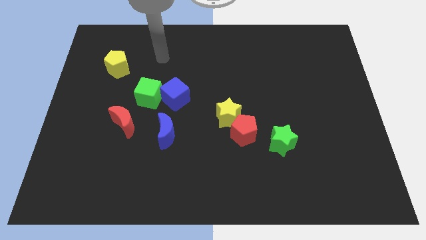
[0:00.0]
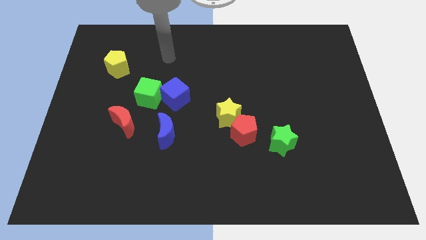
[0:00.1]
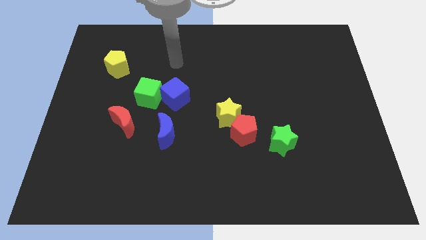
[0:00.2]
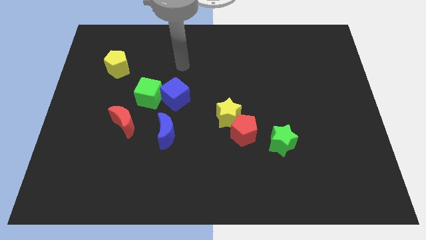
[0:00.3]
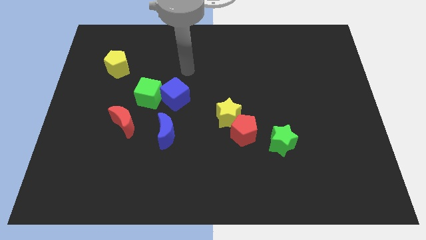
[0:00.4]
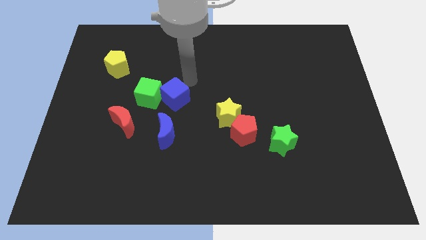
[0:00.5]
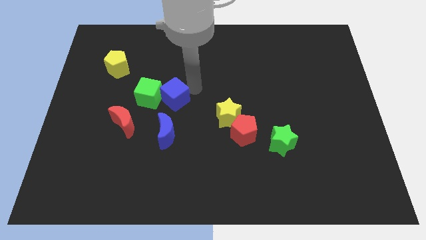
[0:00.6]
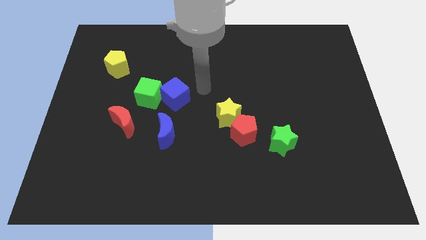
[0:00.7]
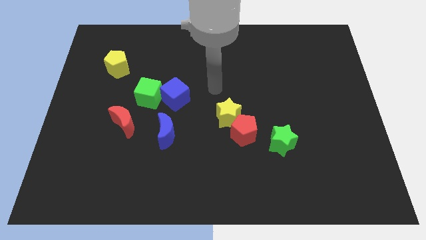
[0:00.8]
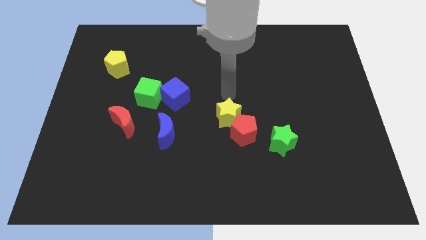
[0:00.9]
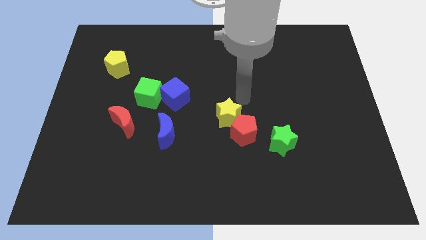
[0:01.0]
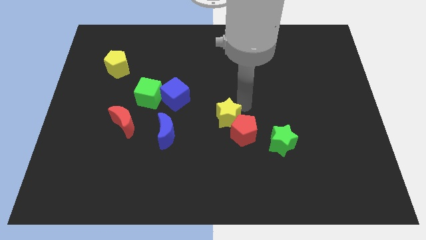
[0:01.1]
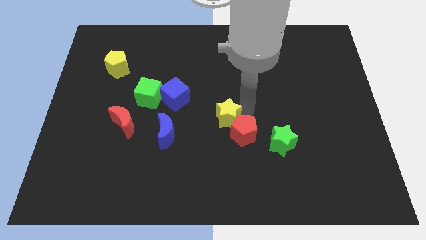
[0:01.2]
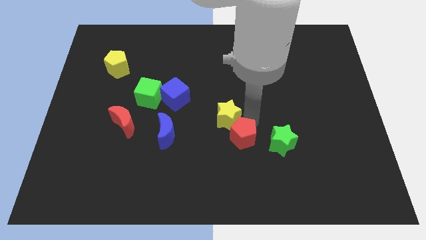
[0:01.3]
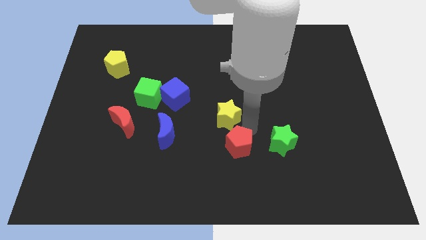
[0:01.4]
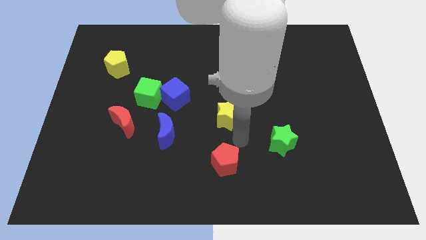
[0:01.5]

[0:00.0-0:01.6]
separate the yellow star from the red pentagon

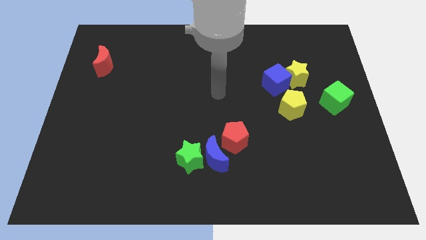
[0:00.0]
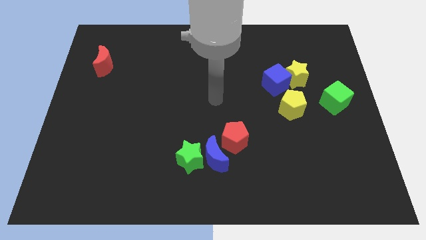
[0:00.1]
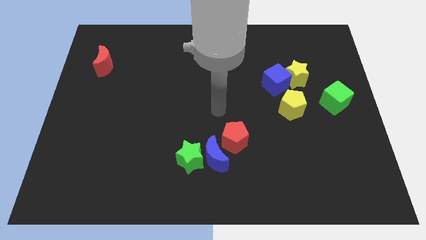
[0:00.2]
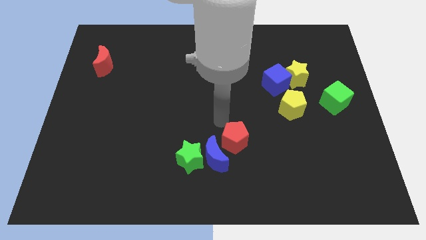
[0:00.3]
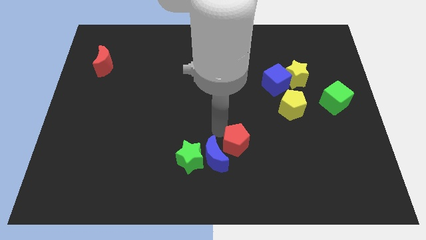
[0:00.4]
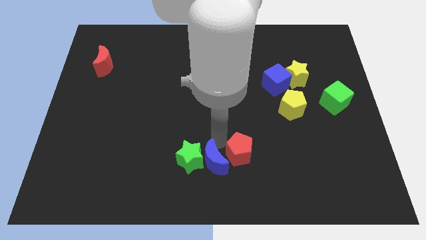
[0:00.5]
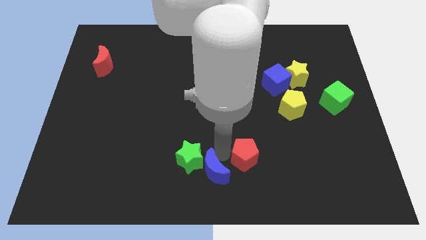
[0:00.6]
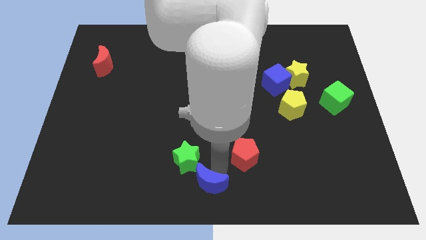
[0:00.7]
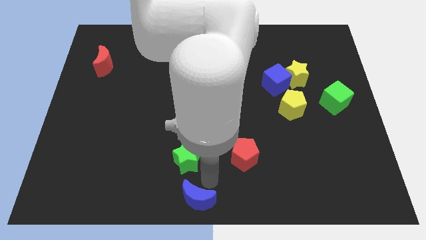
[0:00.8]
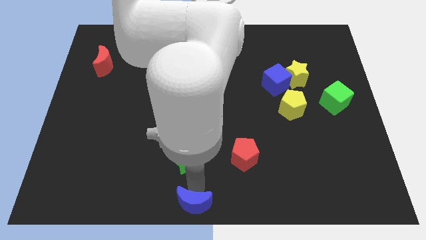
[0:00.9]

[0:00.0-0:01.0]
pull the green star apart from the blue moon

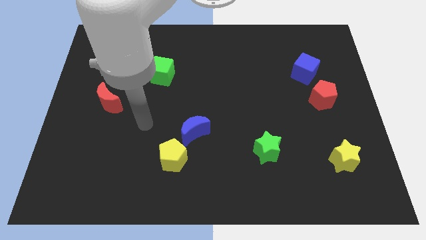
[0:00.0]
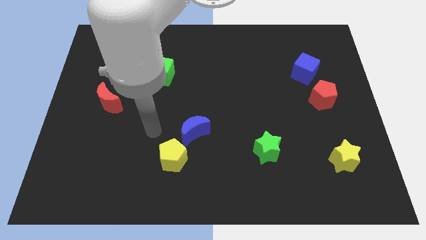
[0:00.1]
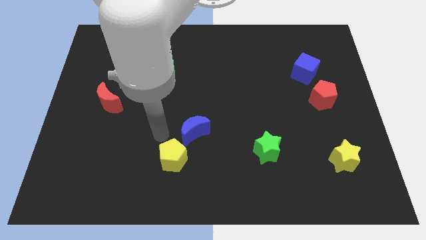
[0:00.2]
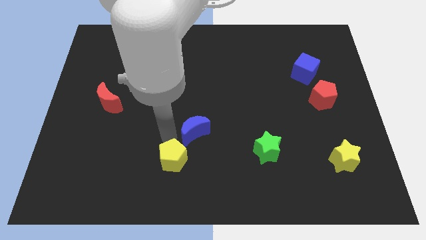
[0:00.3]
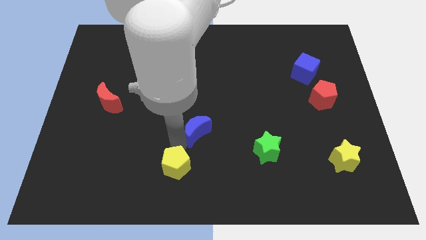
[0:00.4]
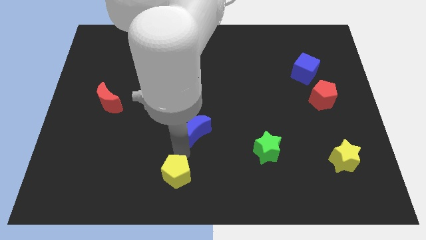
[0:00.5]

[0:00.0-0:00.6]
pull the blue moon apart from the yellow pentagon

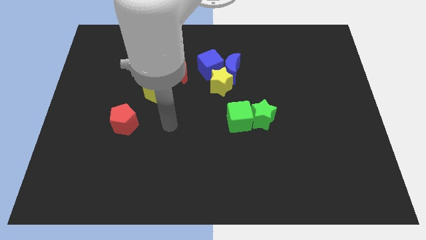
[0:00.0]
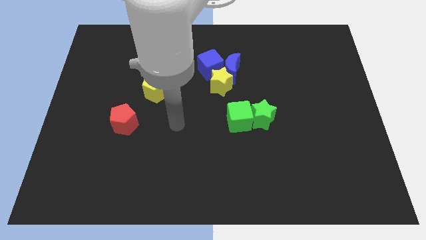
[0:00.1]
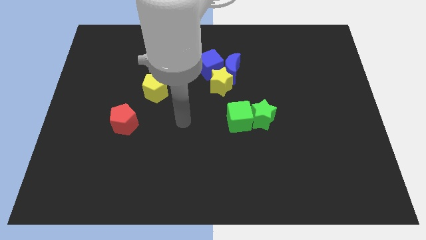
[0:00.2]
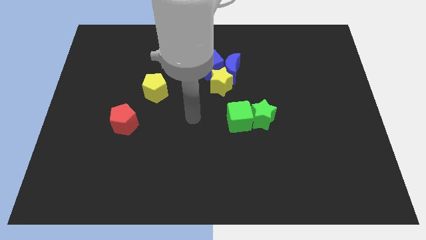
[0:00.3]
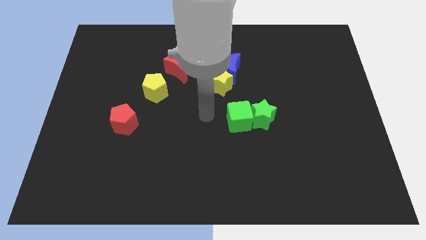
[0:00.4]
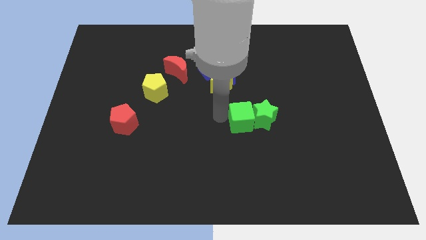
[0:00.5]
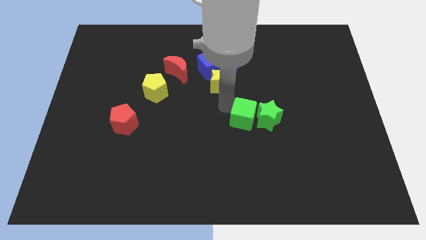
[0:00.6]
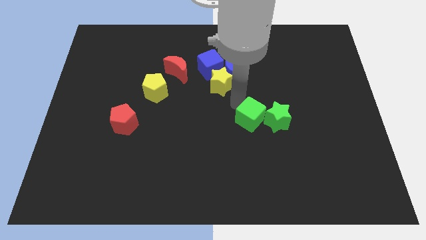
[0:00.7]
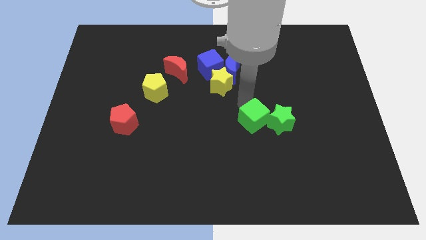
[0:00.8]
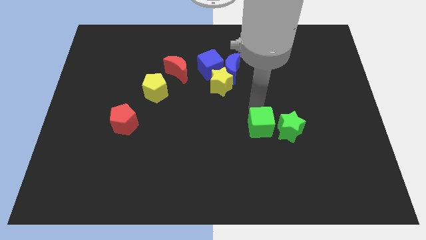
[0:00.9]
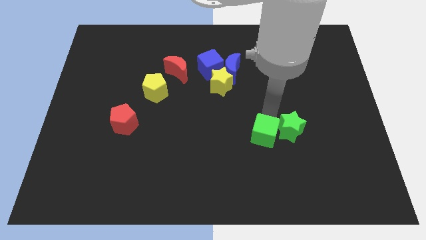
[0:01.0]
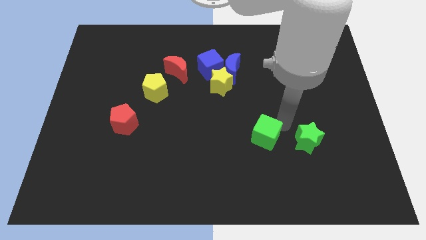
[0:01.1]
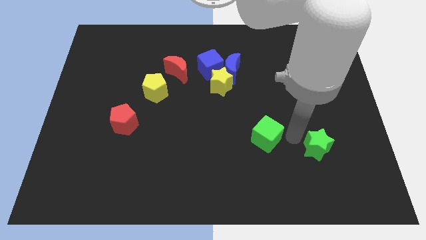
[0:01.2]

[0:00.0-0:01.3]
move the green cube away from the green star

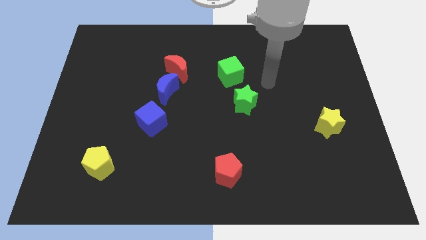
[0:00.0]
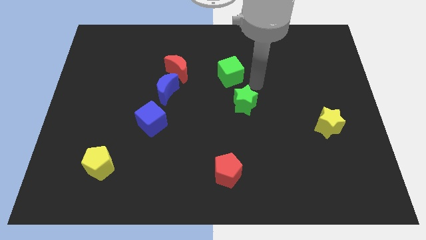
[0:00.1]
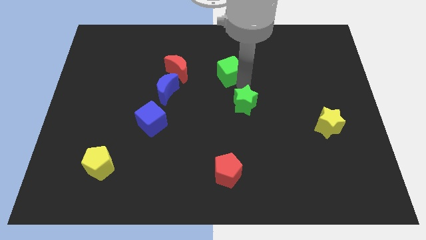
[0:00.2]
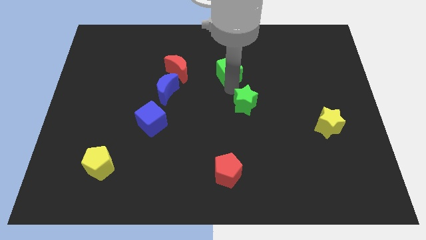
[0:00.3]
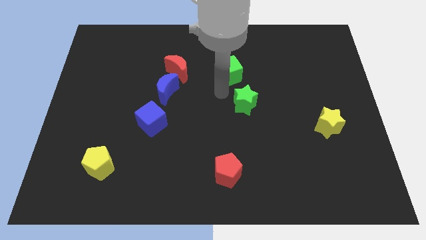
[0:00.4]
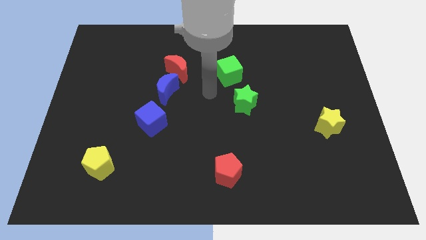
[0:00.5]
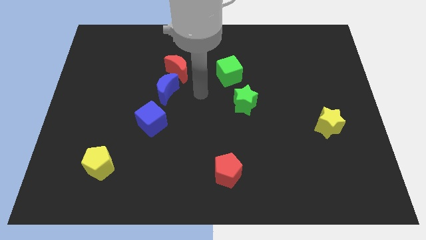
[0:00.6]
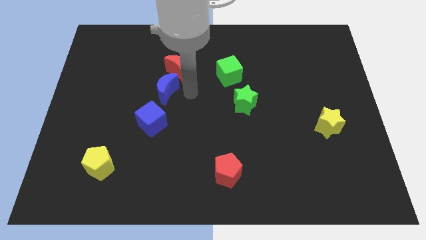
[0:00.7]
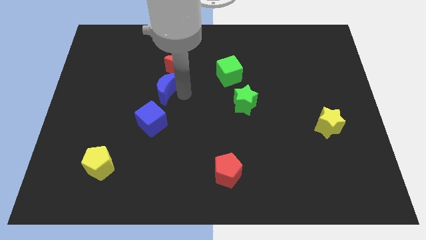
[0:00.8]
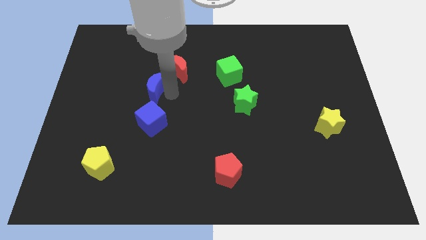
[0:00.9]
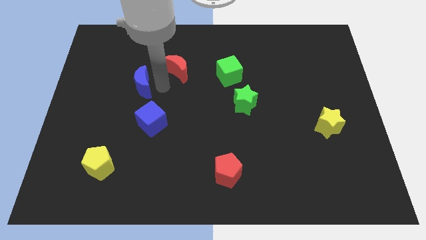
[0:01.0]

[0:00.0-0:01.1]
move the red moon away from the blue moon

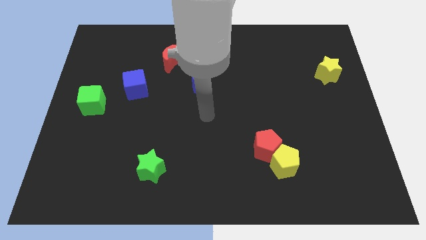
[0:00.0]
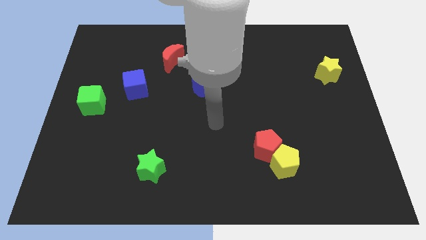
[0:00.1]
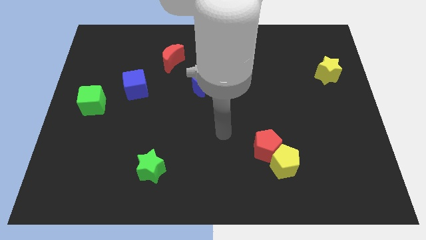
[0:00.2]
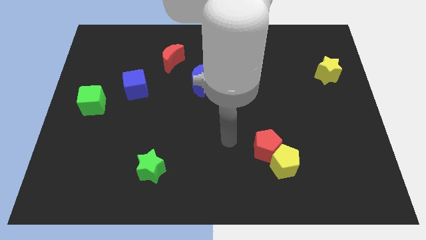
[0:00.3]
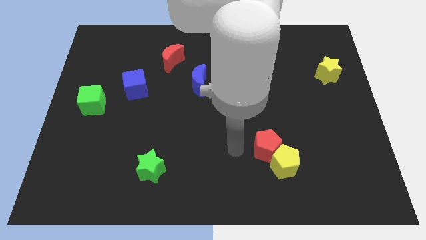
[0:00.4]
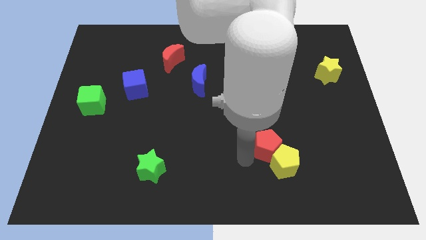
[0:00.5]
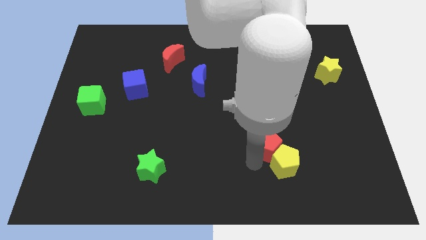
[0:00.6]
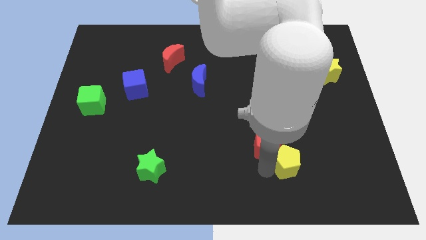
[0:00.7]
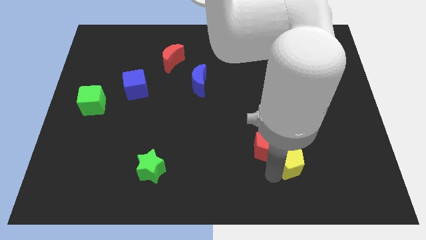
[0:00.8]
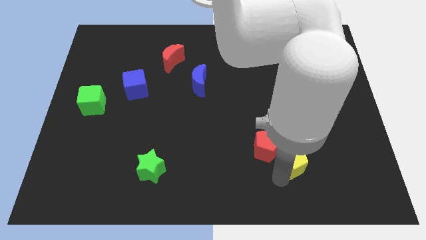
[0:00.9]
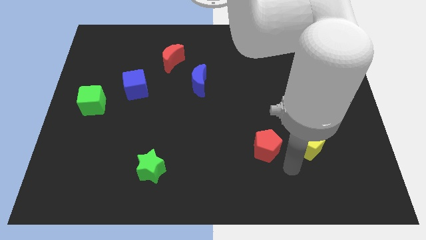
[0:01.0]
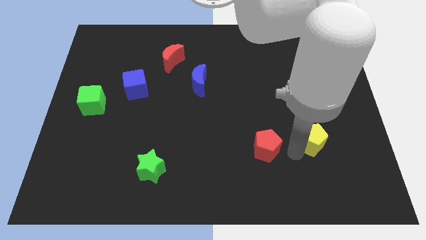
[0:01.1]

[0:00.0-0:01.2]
separate the red pentagon from the yellow pentagon

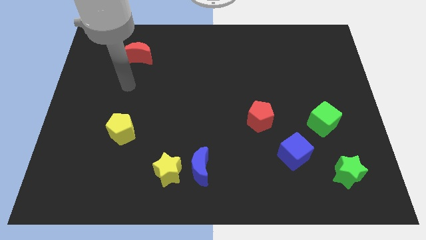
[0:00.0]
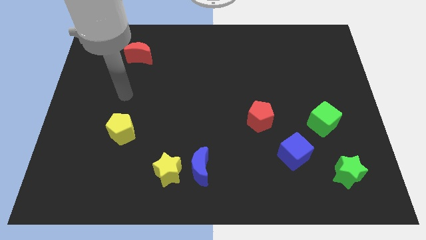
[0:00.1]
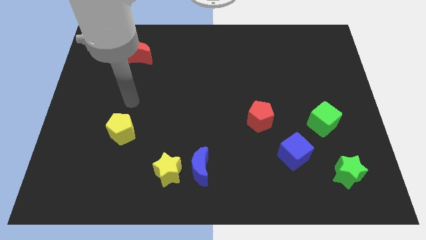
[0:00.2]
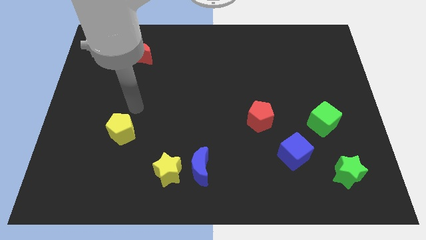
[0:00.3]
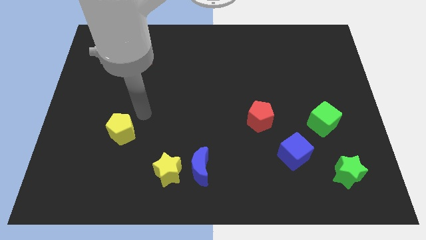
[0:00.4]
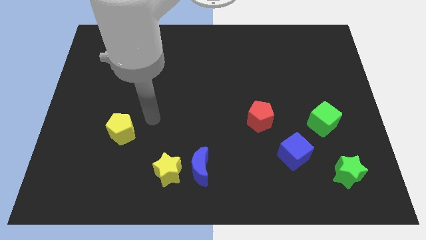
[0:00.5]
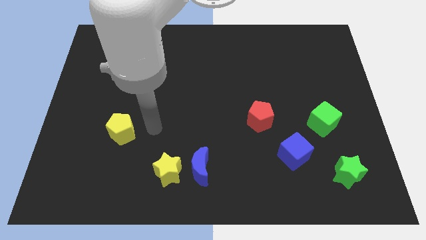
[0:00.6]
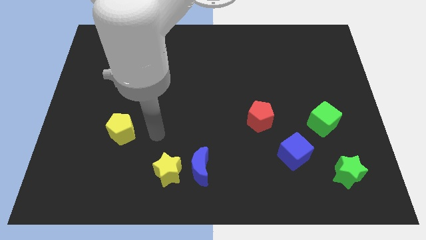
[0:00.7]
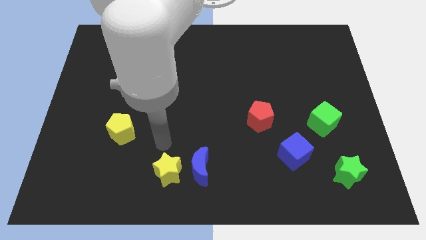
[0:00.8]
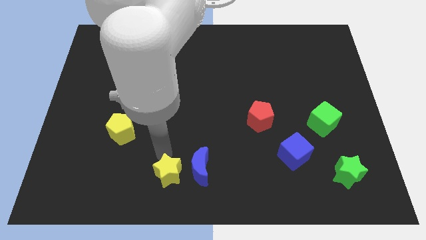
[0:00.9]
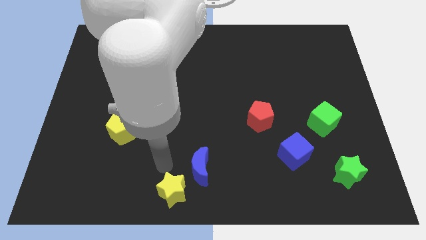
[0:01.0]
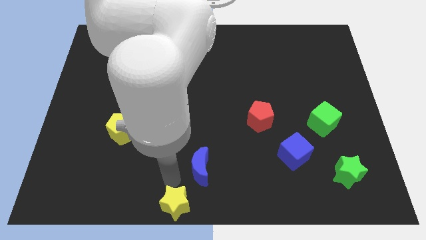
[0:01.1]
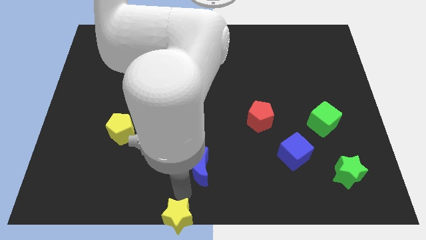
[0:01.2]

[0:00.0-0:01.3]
pull the blue moon apart from the yellow star

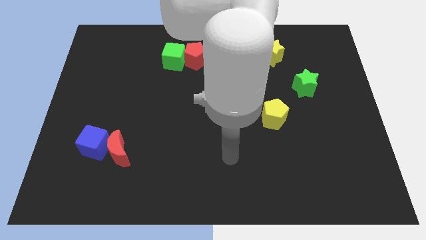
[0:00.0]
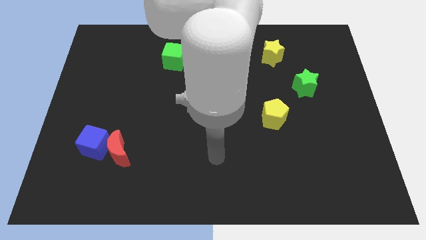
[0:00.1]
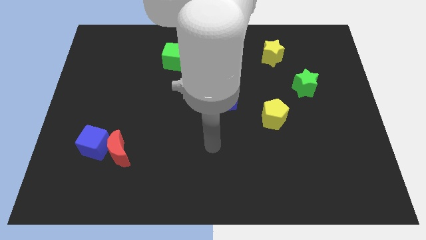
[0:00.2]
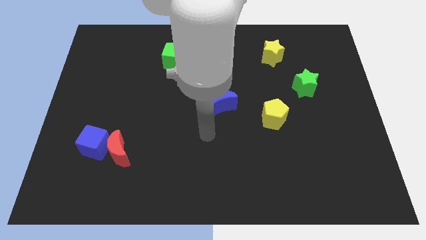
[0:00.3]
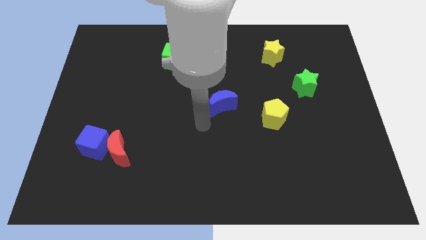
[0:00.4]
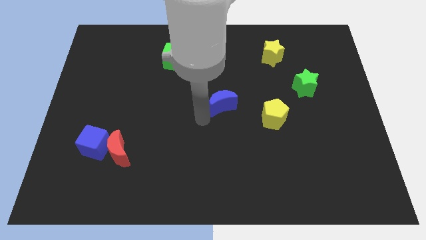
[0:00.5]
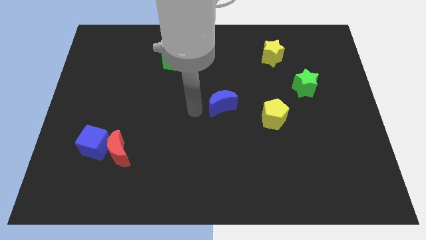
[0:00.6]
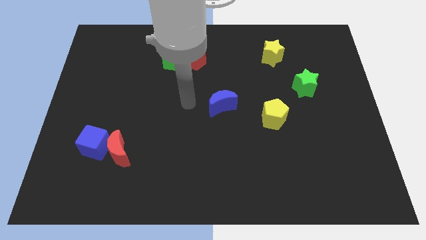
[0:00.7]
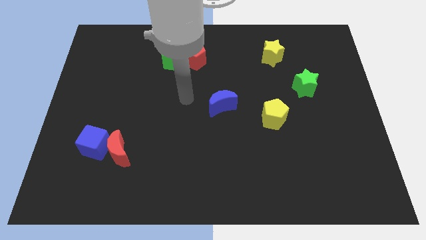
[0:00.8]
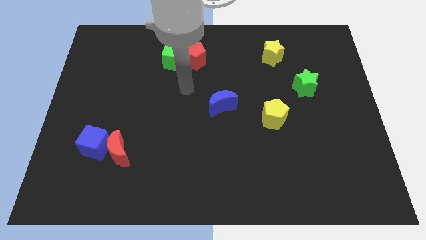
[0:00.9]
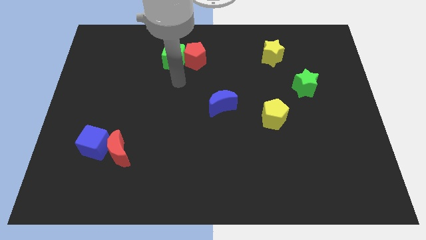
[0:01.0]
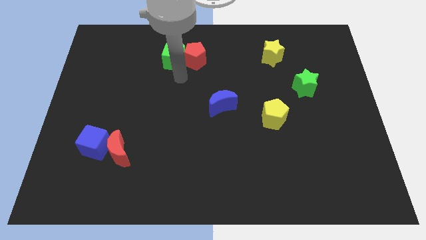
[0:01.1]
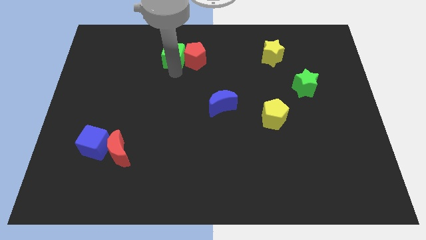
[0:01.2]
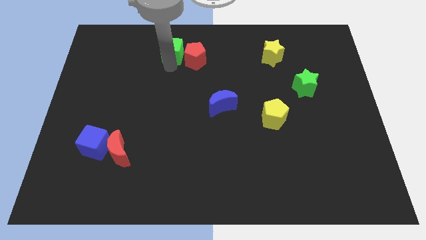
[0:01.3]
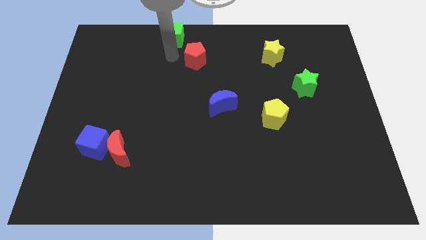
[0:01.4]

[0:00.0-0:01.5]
move the red pentagon away from the green cube
